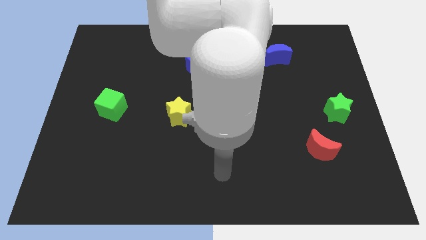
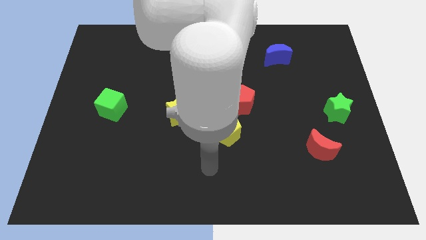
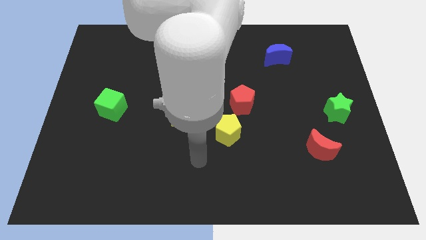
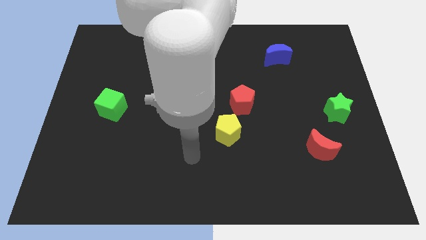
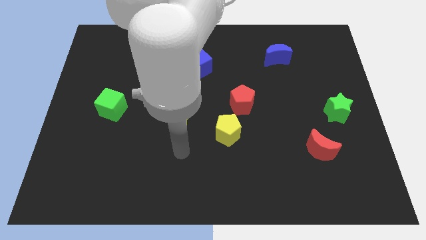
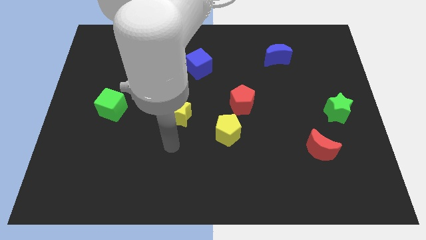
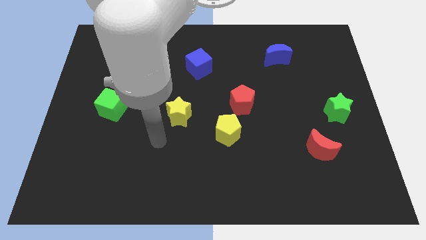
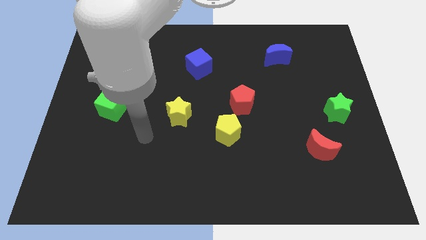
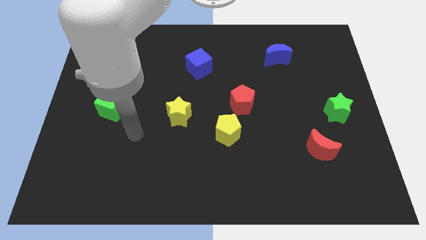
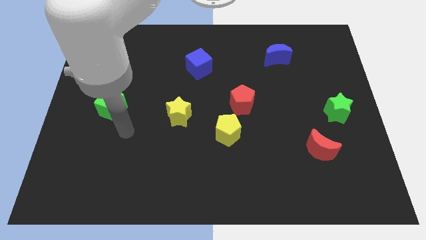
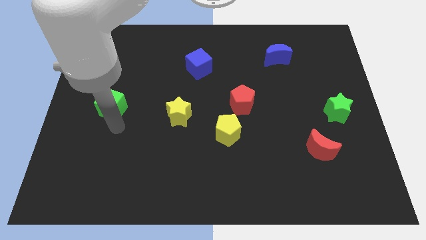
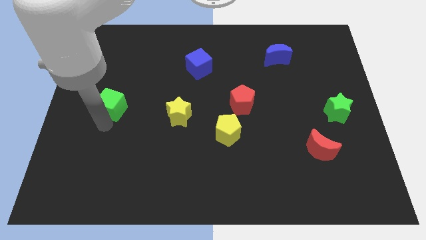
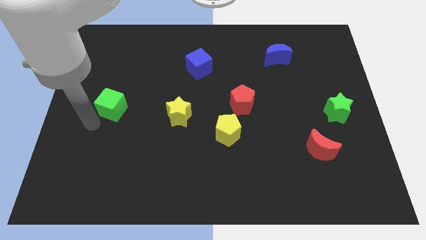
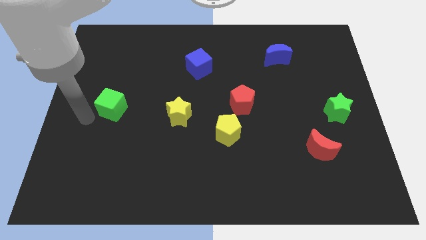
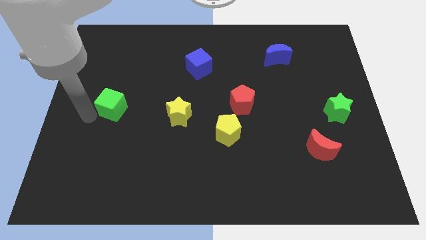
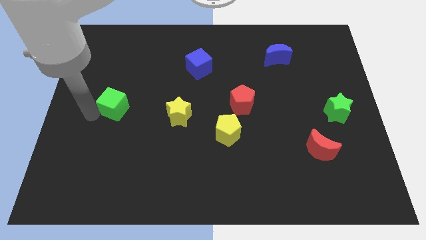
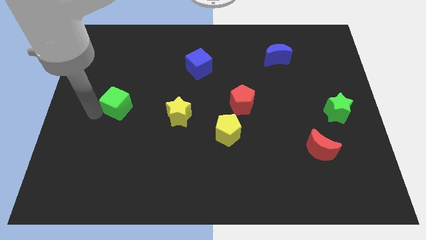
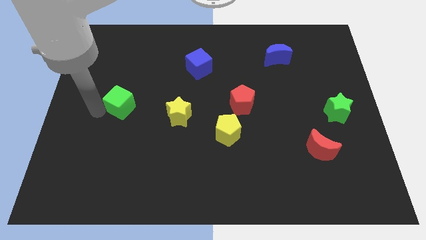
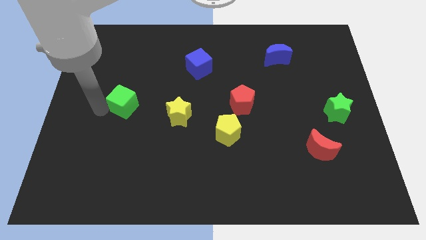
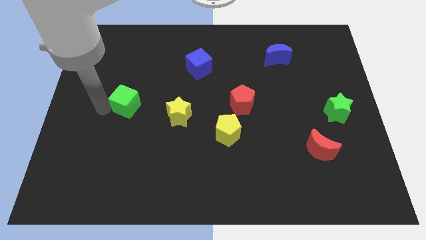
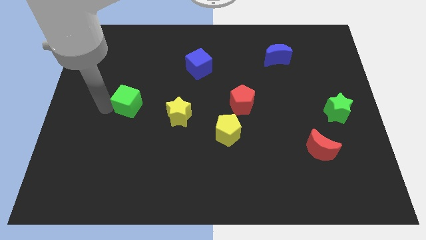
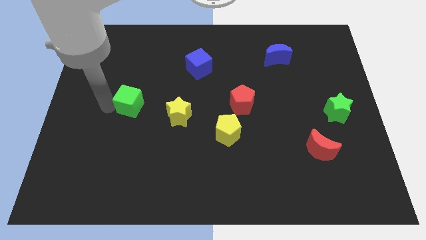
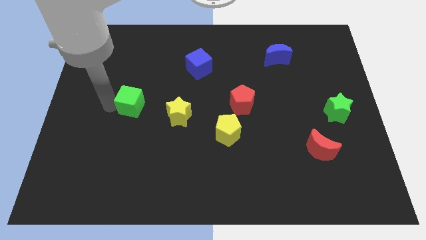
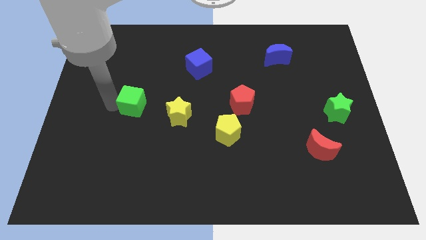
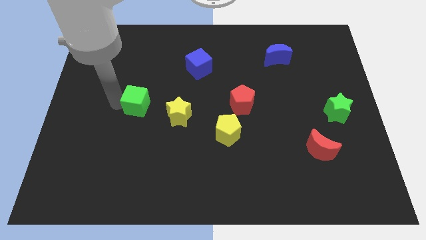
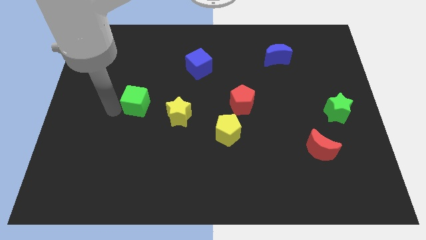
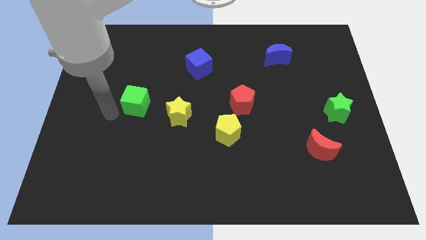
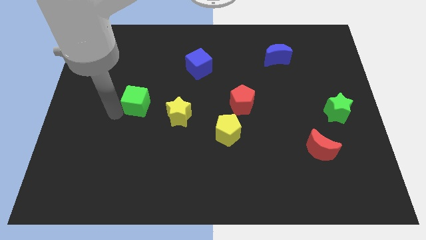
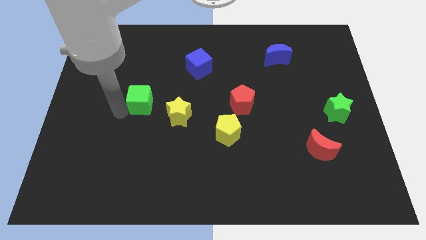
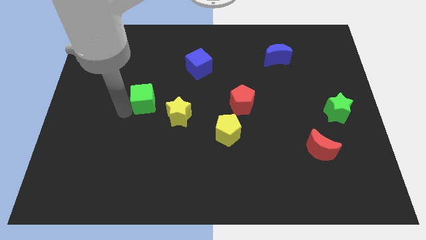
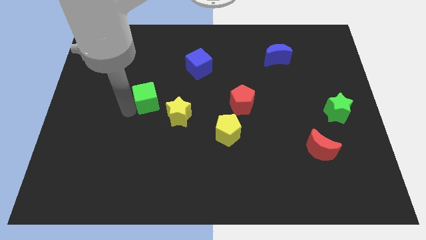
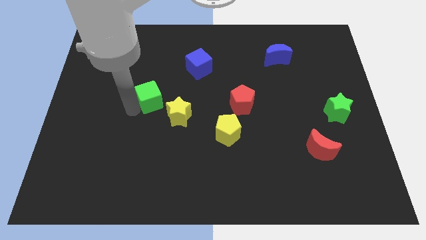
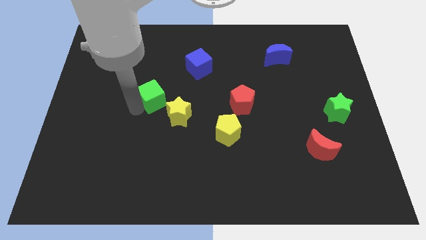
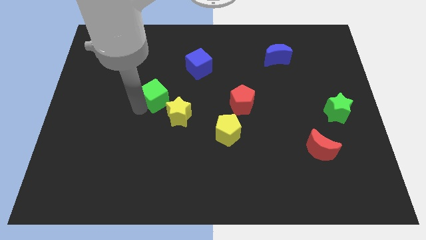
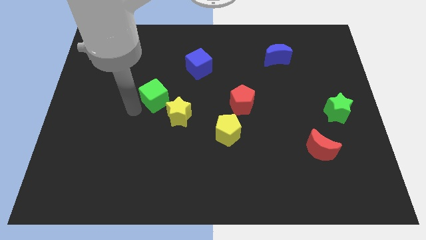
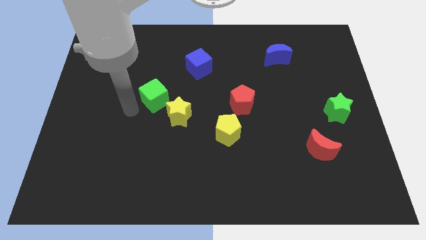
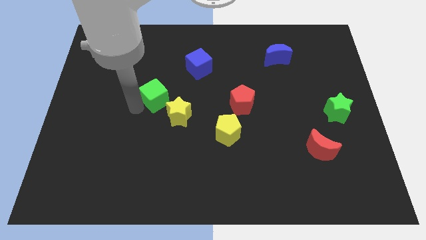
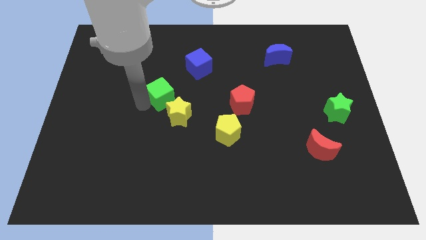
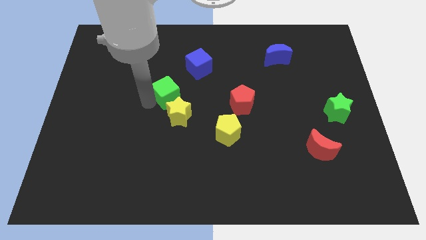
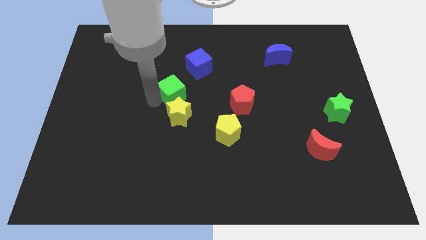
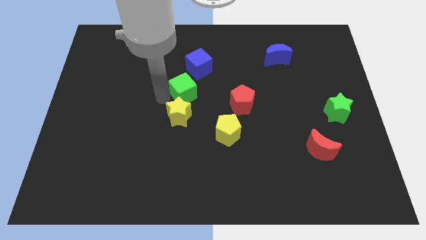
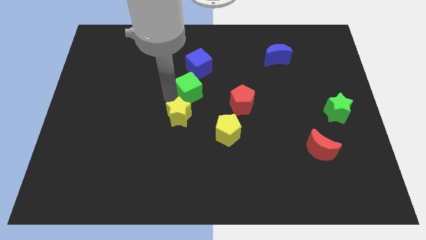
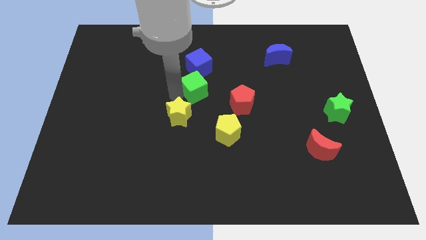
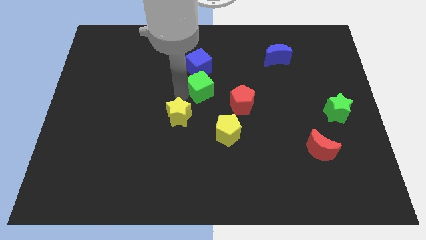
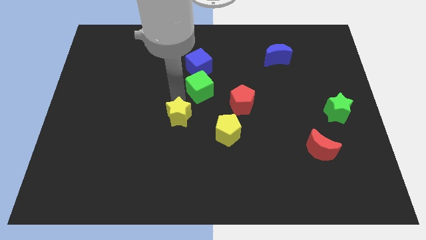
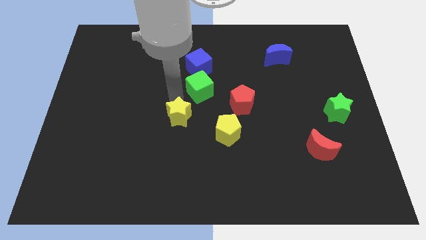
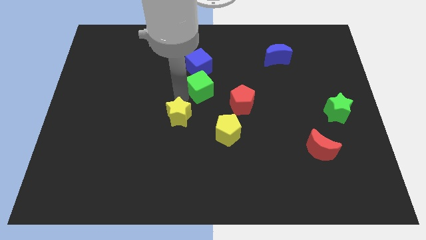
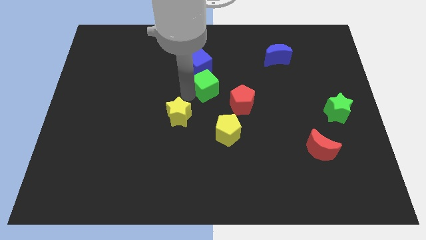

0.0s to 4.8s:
push the green cube diagonally down and to the right of the blue cube

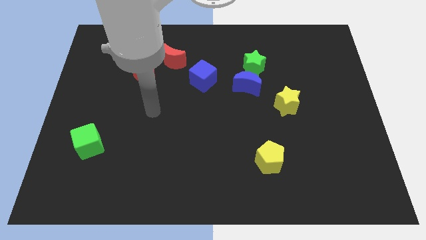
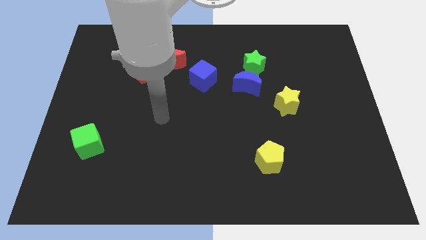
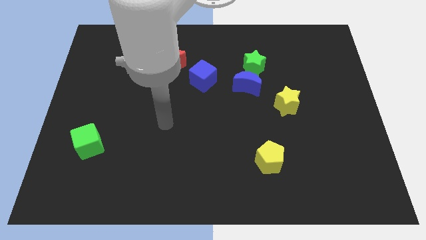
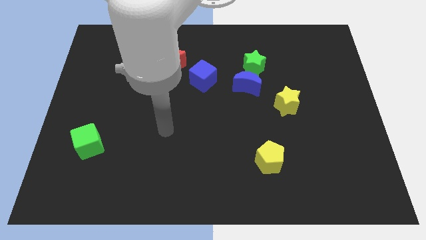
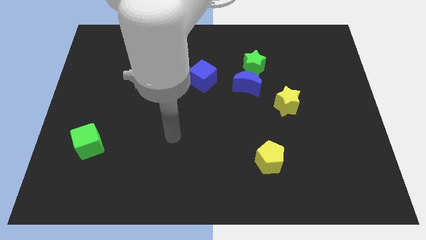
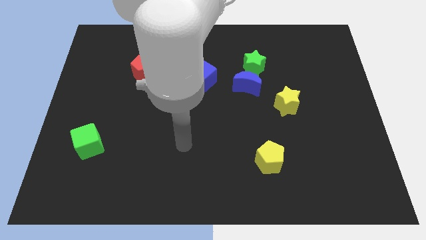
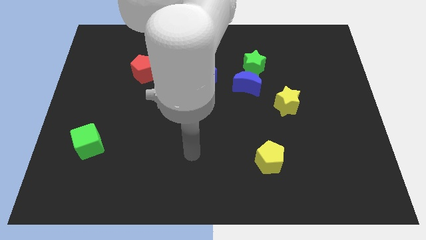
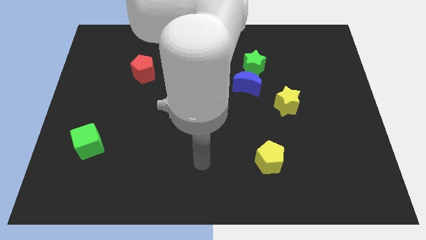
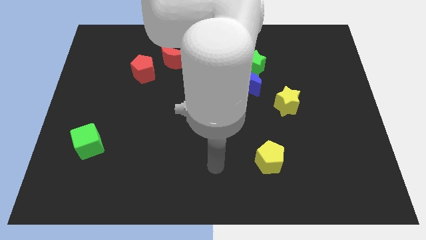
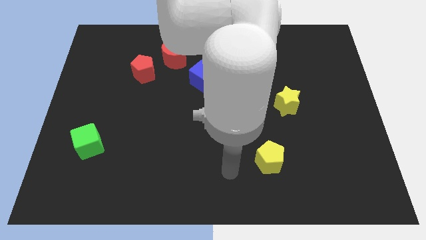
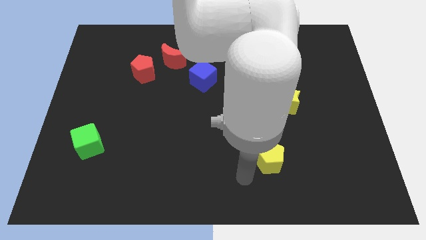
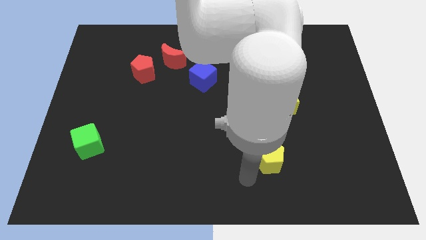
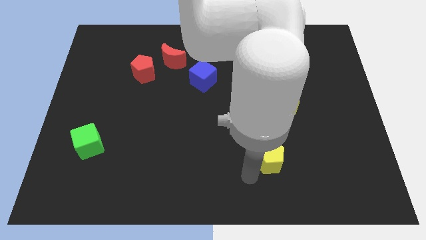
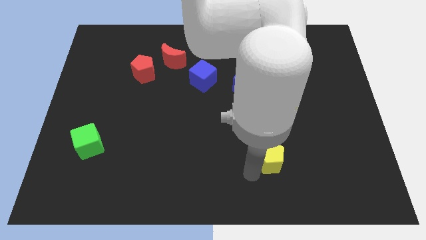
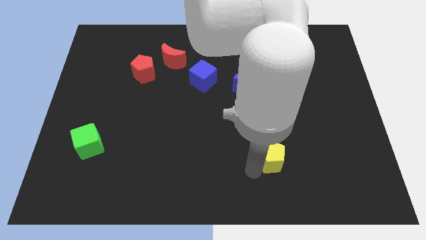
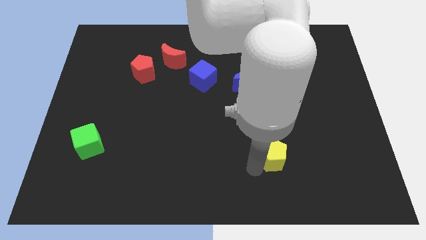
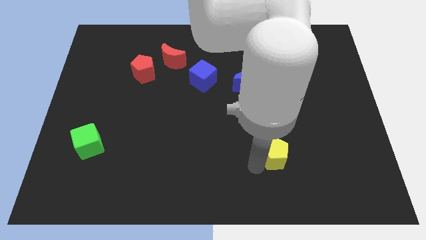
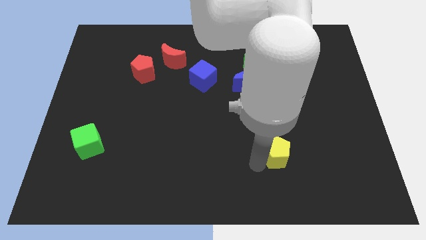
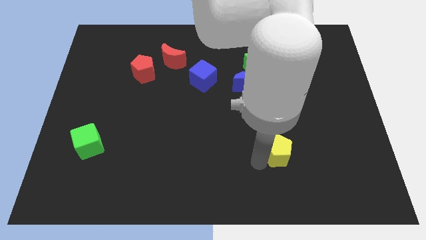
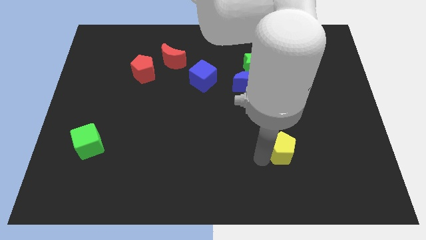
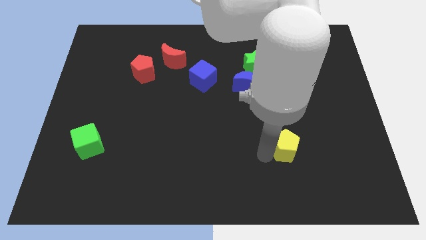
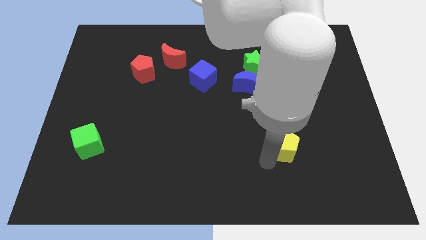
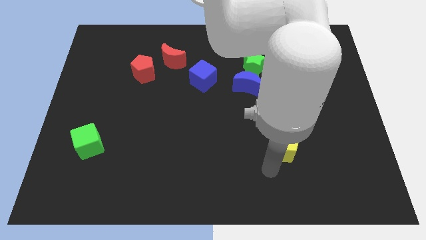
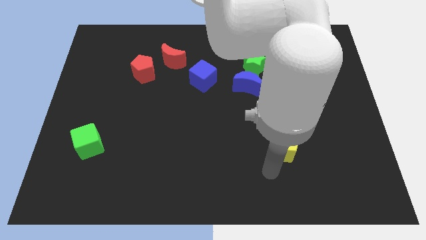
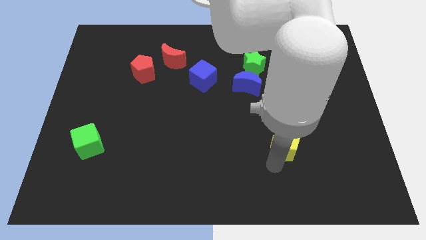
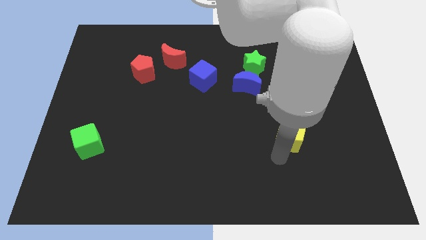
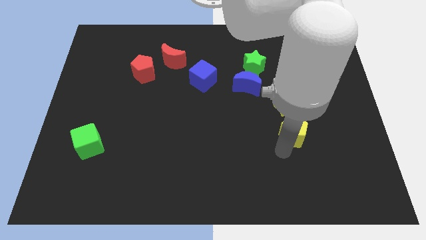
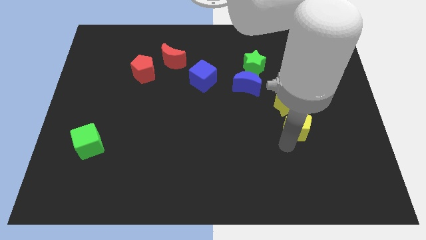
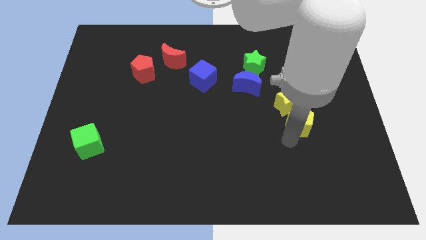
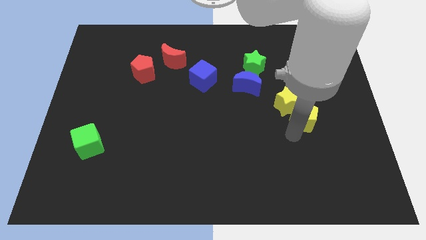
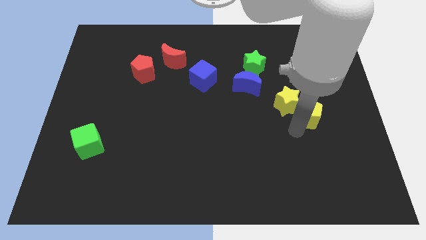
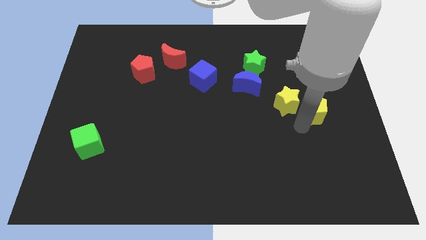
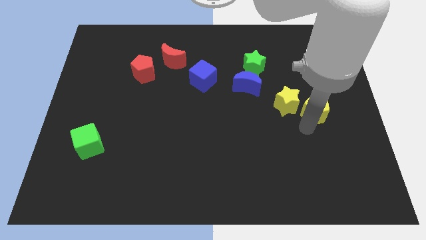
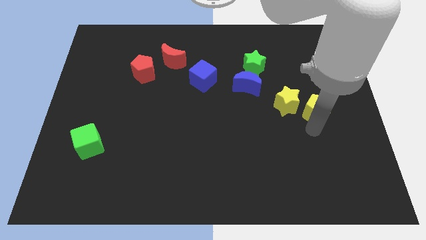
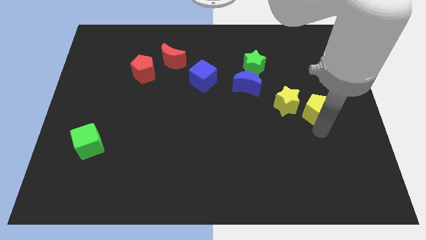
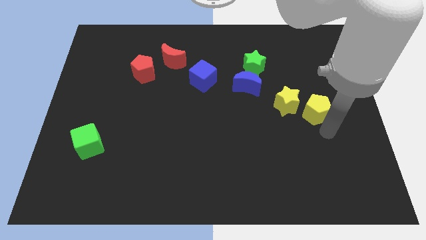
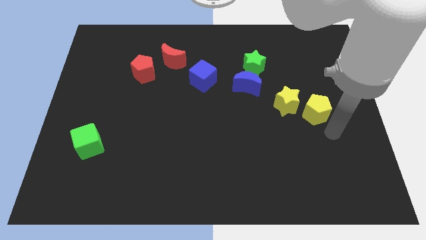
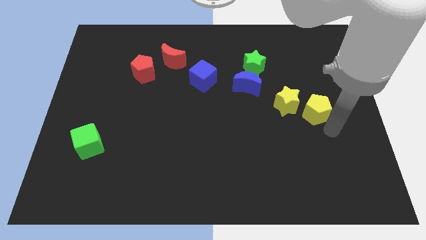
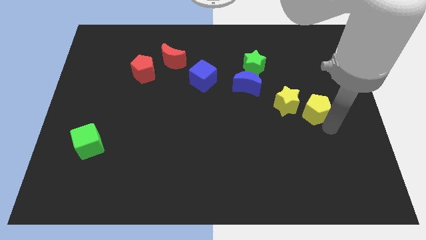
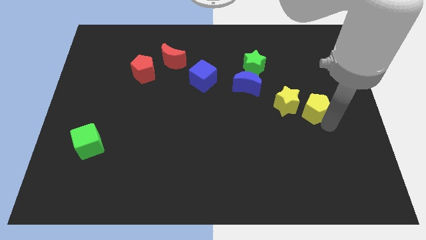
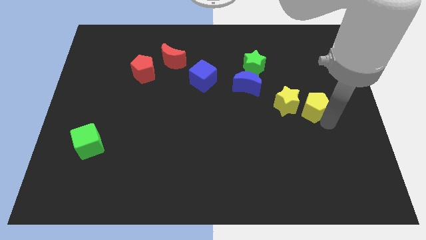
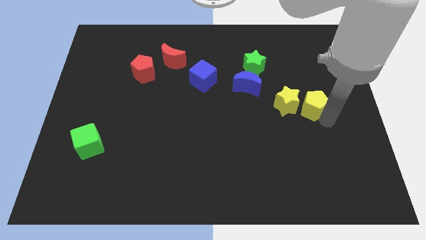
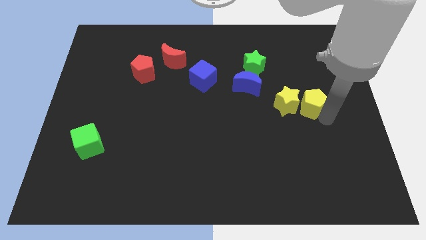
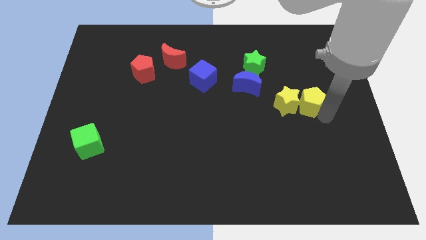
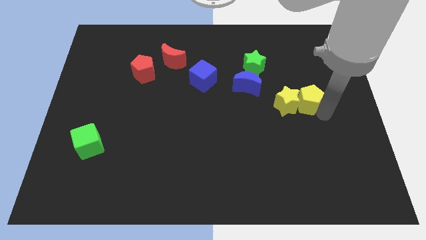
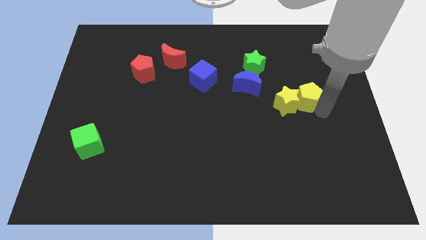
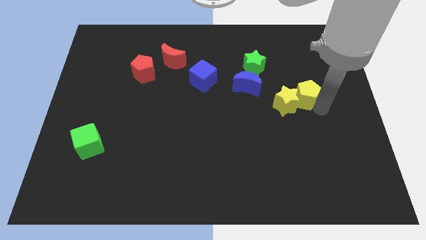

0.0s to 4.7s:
put the yellow pentagon just right of the blue moon
